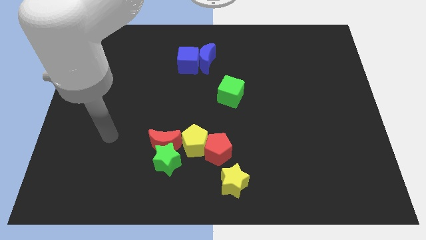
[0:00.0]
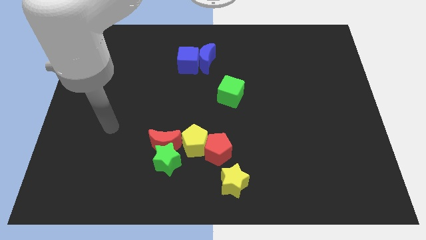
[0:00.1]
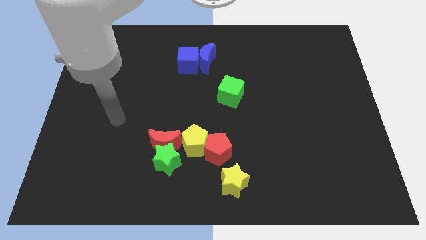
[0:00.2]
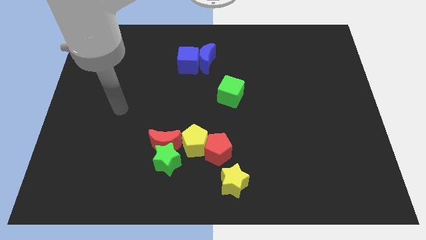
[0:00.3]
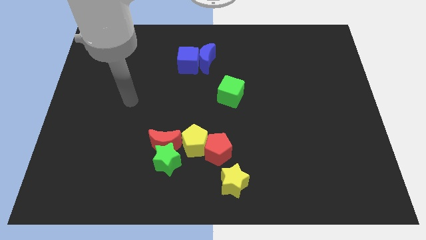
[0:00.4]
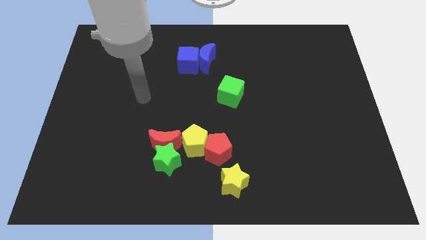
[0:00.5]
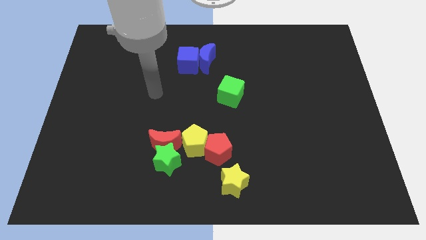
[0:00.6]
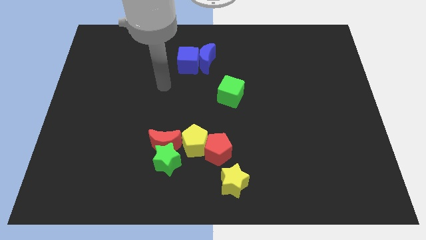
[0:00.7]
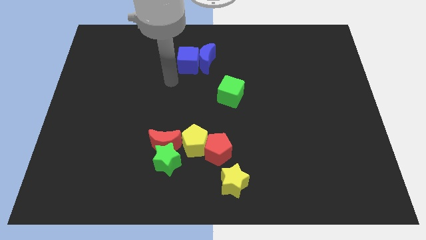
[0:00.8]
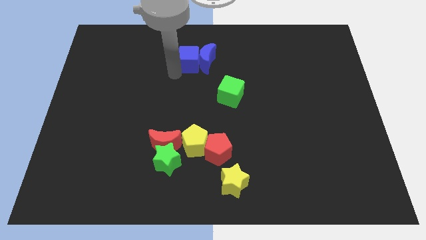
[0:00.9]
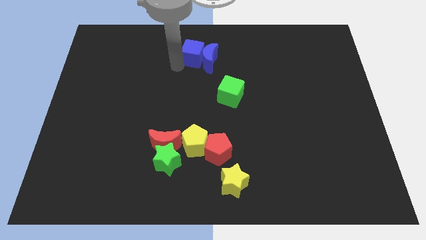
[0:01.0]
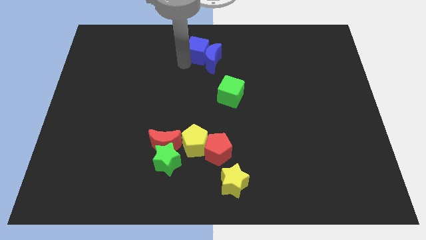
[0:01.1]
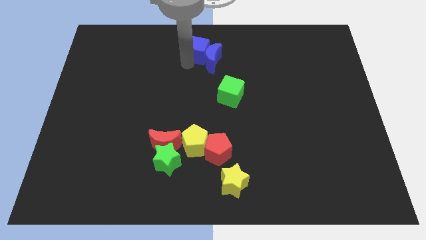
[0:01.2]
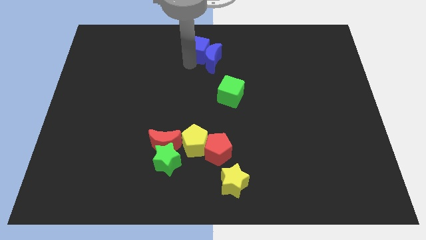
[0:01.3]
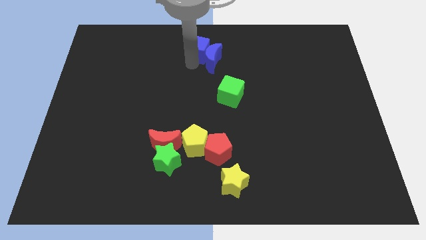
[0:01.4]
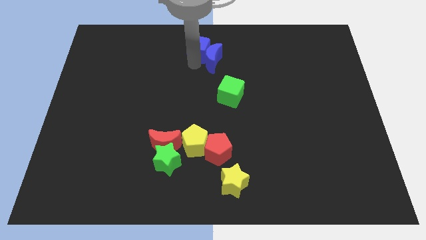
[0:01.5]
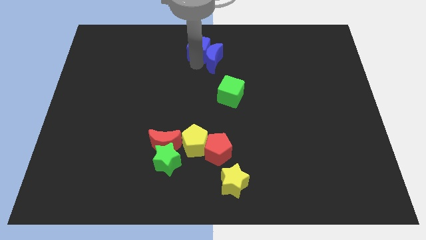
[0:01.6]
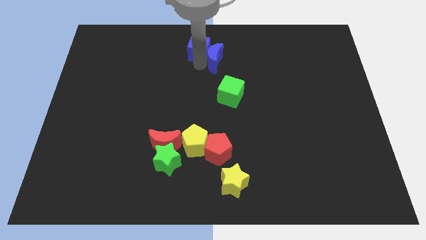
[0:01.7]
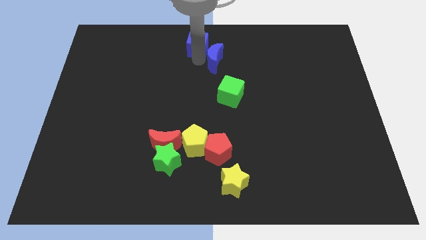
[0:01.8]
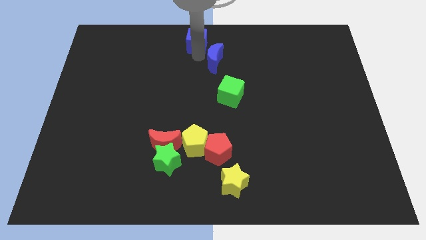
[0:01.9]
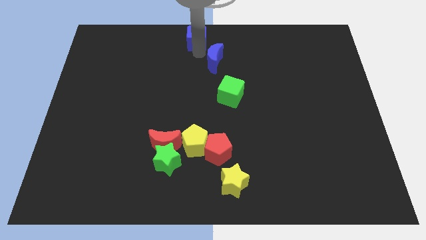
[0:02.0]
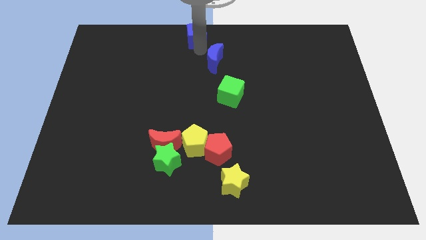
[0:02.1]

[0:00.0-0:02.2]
separate the blue moon from the blue cube

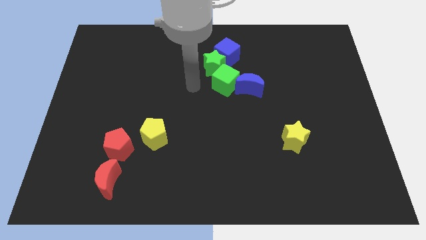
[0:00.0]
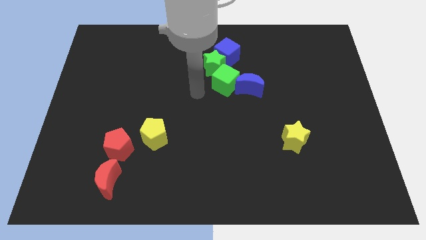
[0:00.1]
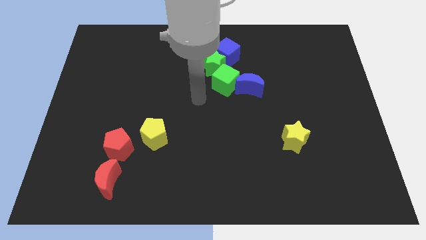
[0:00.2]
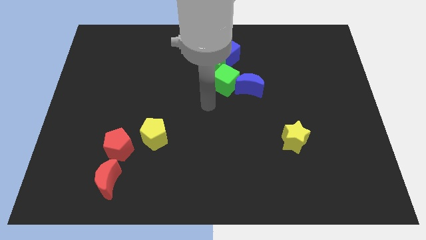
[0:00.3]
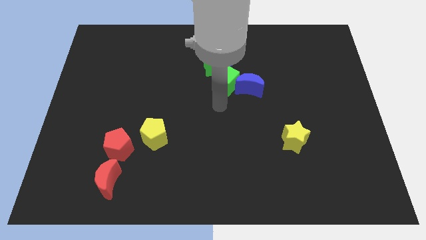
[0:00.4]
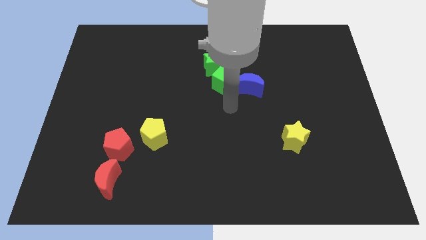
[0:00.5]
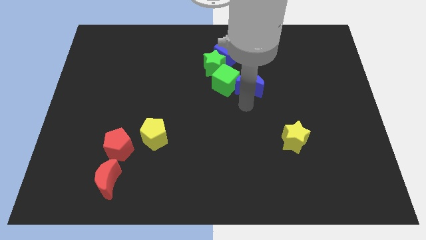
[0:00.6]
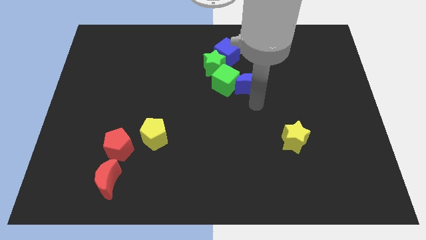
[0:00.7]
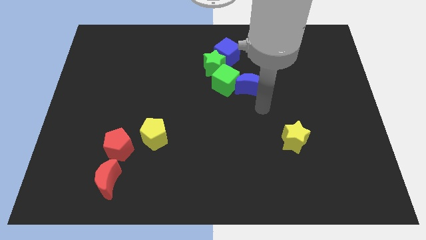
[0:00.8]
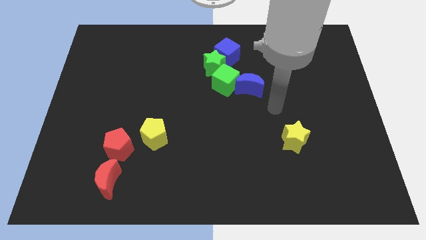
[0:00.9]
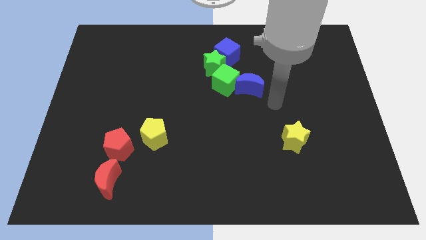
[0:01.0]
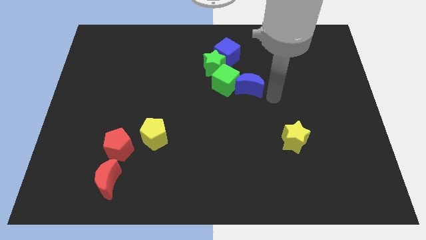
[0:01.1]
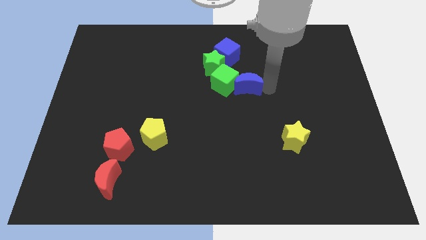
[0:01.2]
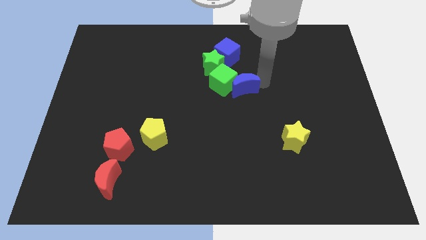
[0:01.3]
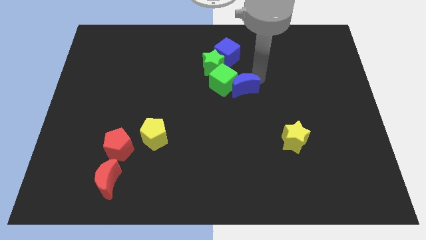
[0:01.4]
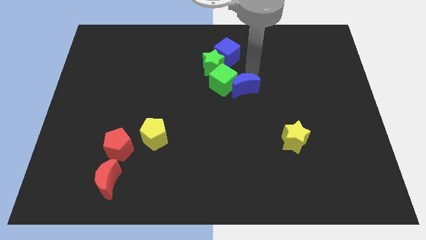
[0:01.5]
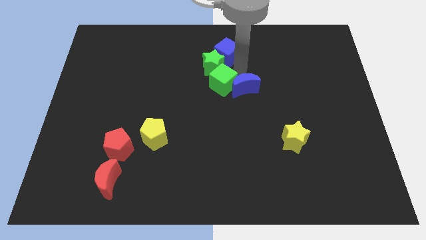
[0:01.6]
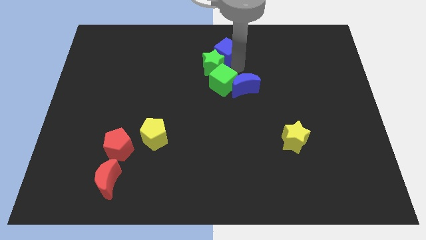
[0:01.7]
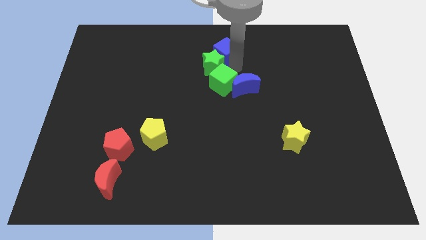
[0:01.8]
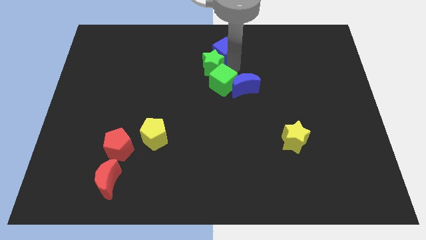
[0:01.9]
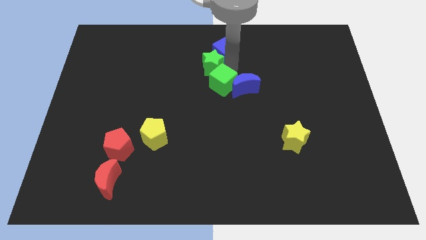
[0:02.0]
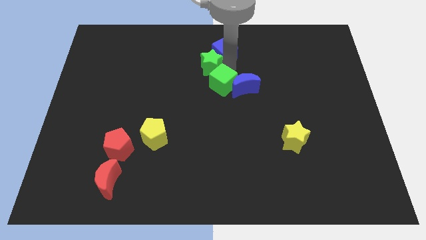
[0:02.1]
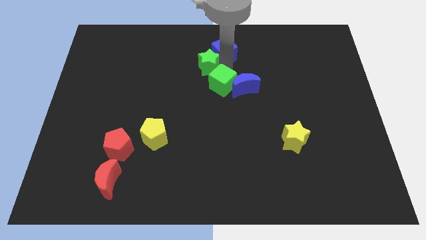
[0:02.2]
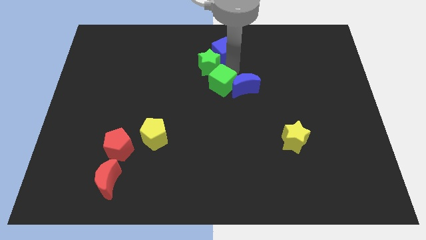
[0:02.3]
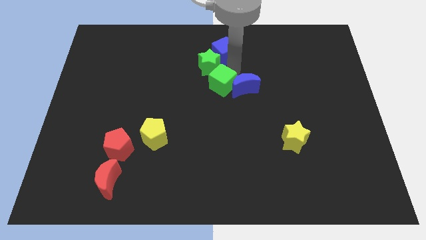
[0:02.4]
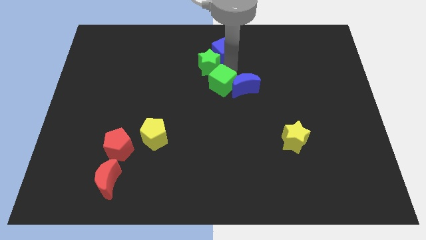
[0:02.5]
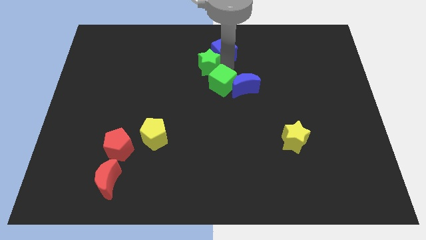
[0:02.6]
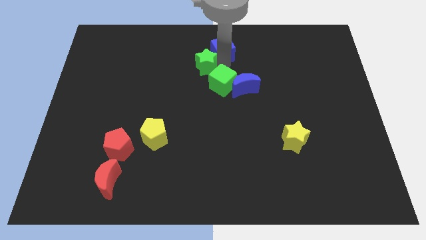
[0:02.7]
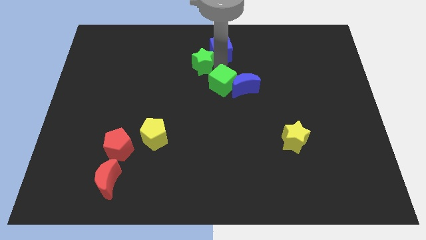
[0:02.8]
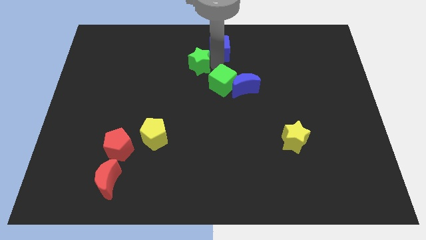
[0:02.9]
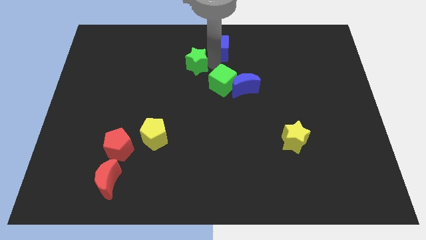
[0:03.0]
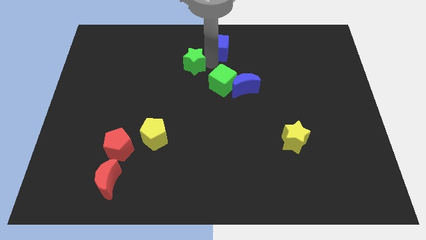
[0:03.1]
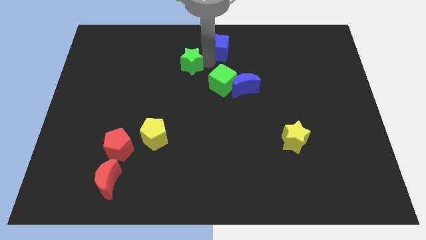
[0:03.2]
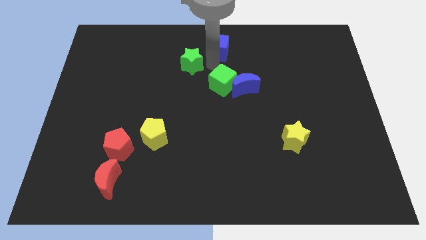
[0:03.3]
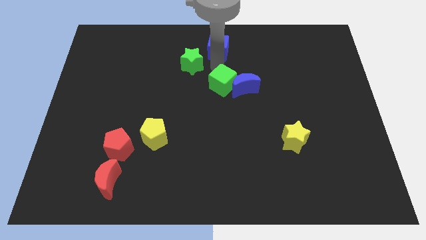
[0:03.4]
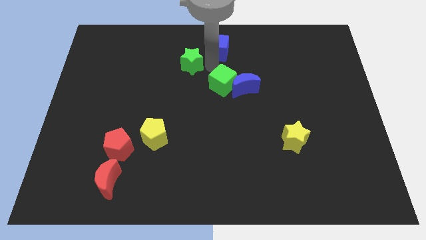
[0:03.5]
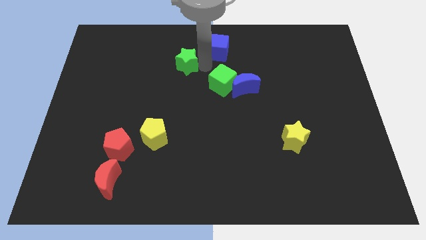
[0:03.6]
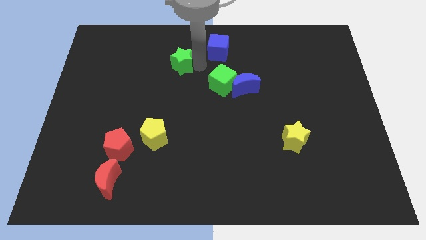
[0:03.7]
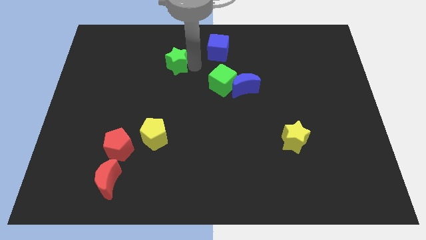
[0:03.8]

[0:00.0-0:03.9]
pull the green star apart from the blue cube and green cube

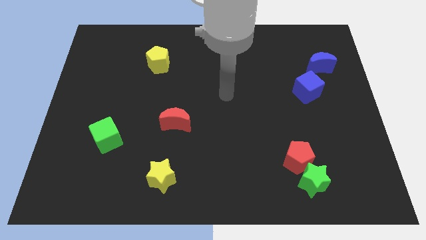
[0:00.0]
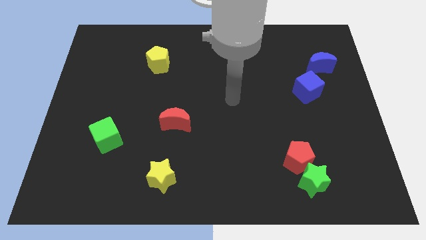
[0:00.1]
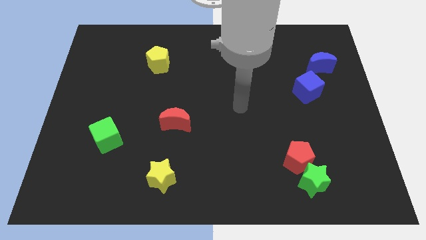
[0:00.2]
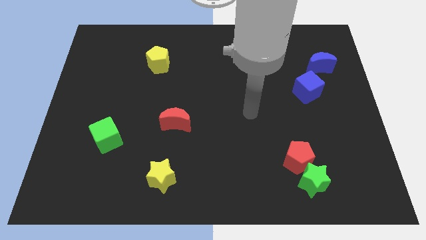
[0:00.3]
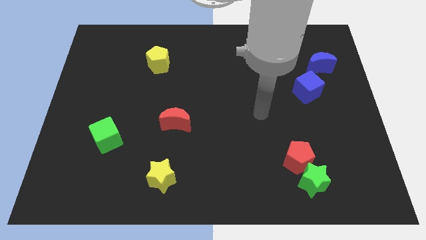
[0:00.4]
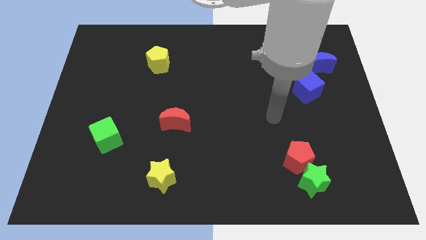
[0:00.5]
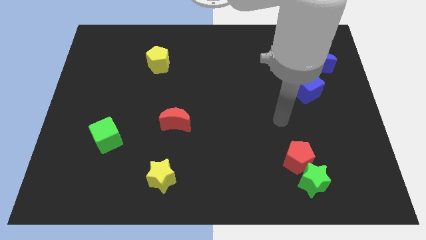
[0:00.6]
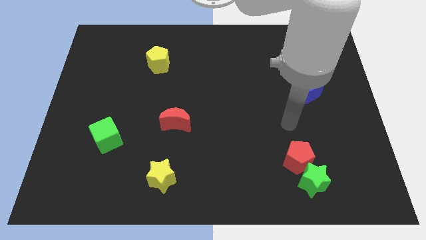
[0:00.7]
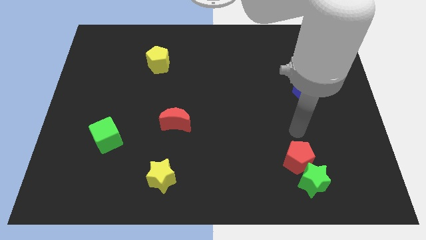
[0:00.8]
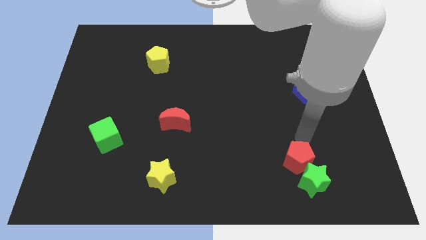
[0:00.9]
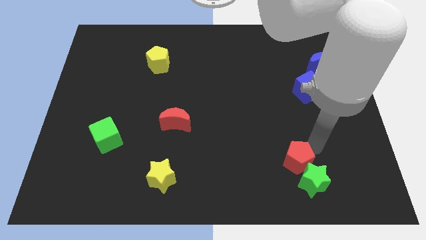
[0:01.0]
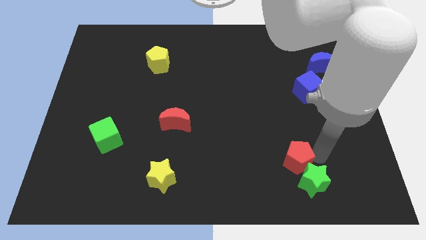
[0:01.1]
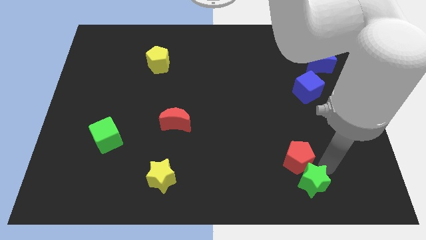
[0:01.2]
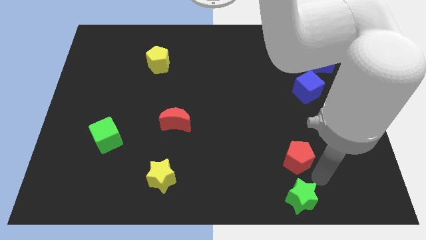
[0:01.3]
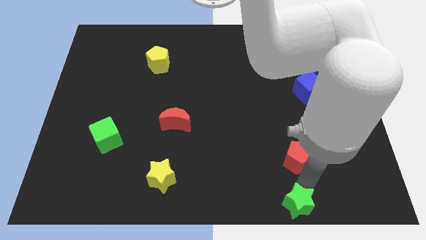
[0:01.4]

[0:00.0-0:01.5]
pull the red pentagon apart from the green star

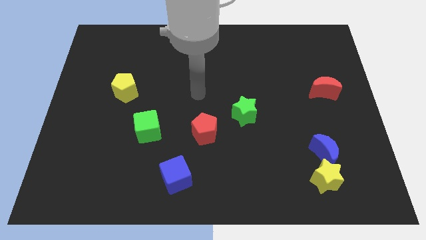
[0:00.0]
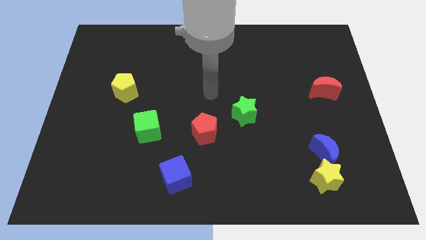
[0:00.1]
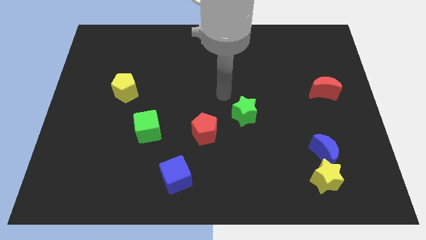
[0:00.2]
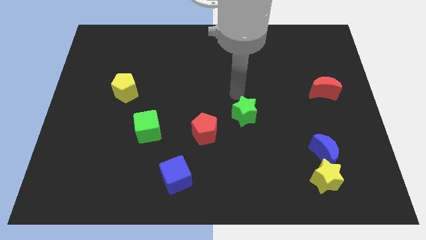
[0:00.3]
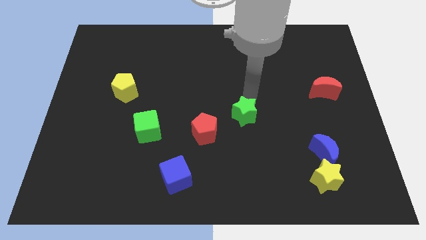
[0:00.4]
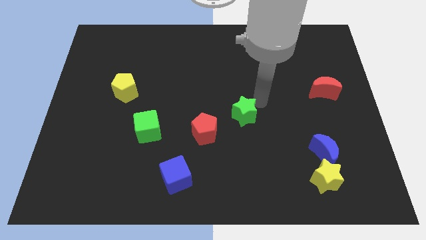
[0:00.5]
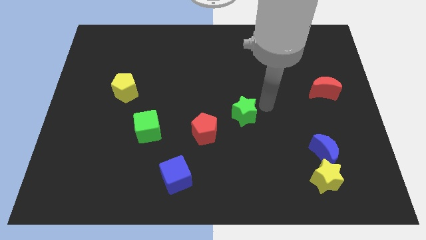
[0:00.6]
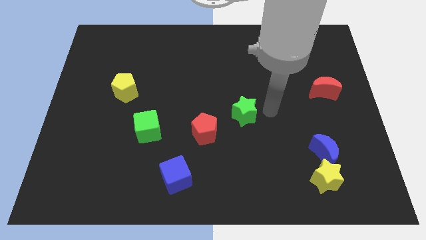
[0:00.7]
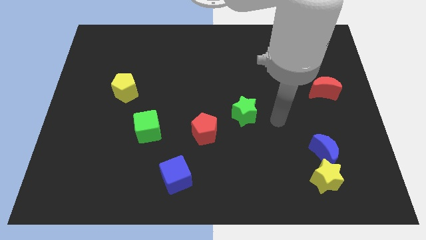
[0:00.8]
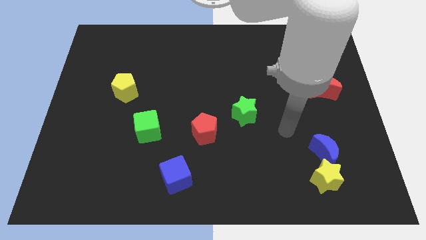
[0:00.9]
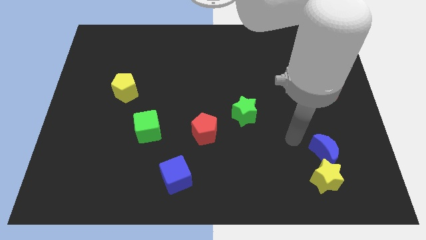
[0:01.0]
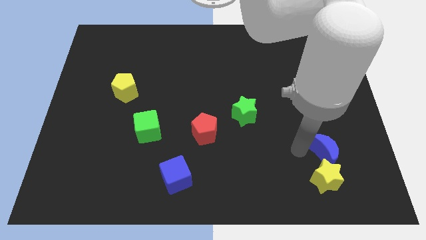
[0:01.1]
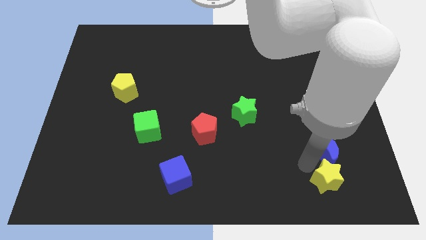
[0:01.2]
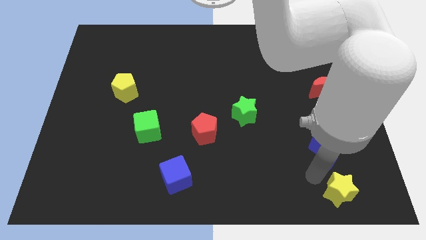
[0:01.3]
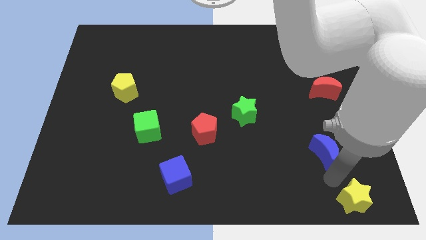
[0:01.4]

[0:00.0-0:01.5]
separate the blue moon from the yellow star

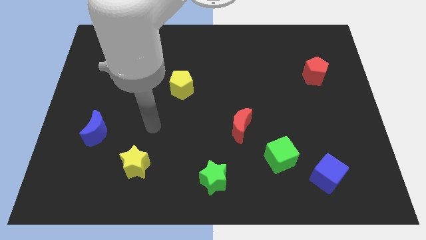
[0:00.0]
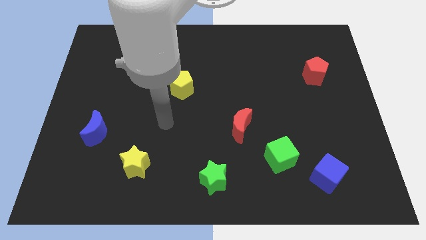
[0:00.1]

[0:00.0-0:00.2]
pull the blue cube apart from the green cube
